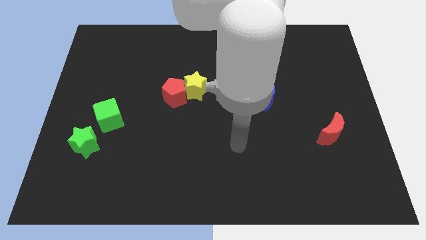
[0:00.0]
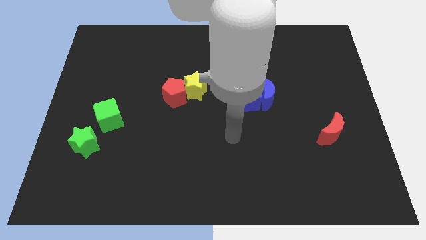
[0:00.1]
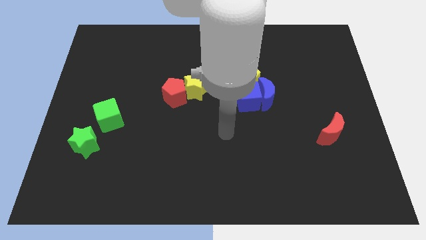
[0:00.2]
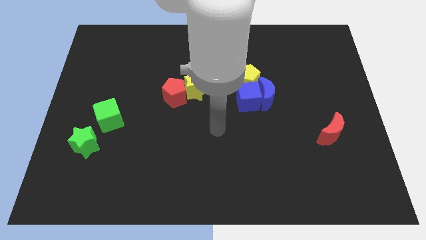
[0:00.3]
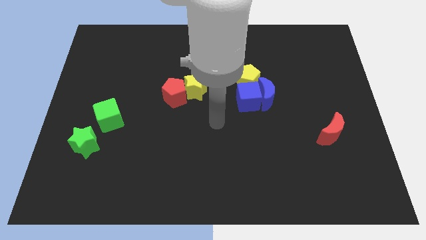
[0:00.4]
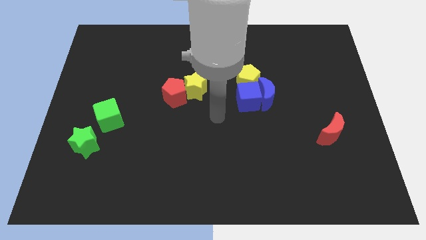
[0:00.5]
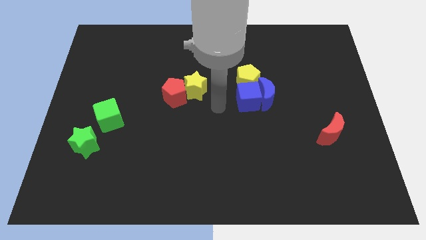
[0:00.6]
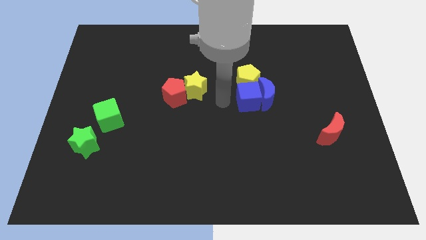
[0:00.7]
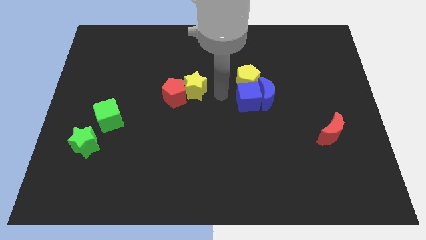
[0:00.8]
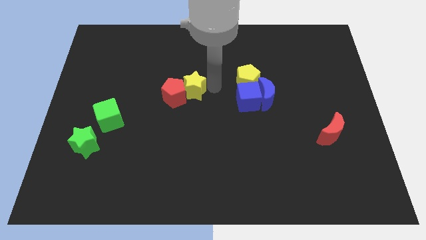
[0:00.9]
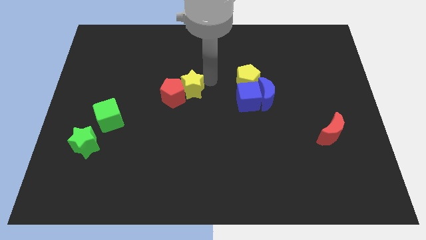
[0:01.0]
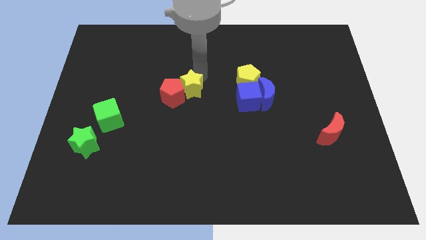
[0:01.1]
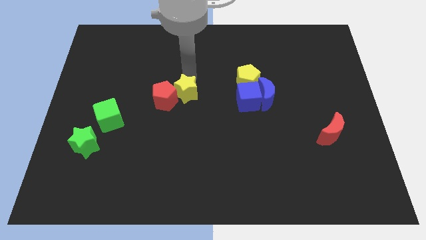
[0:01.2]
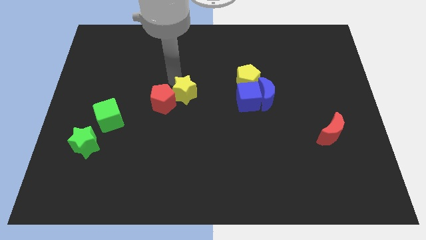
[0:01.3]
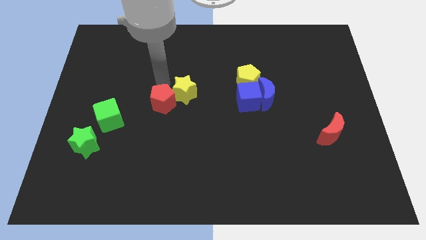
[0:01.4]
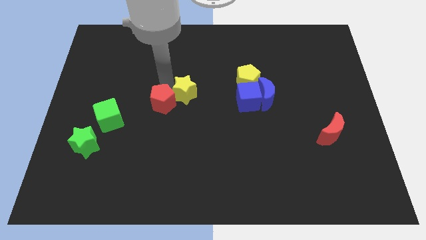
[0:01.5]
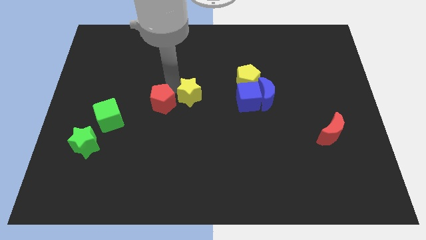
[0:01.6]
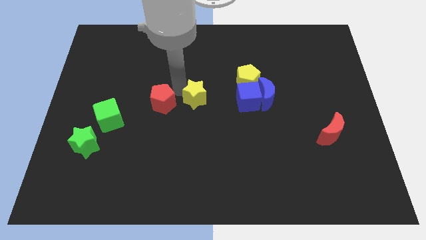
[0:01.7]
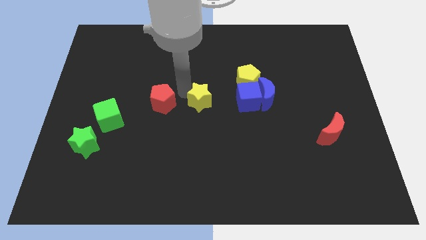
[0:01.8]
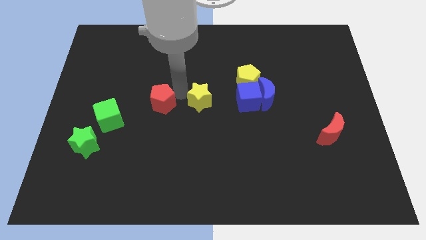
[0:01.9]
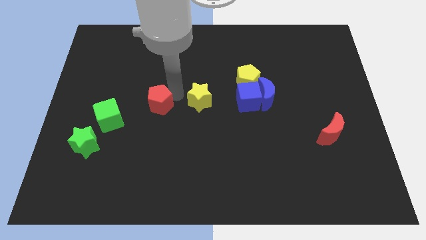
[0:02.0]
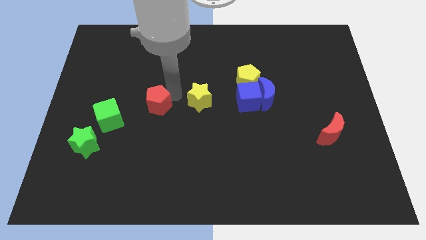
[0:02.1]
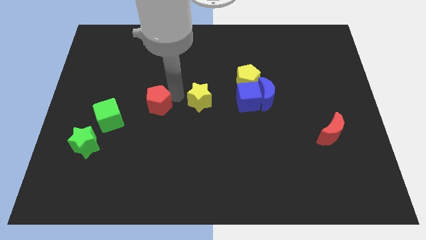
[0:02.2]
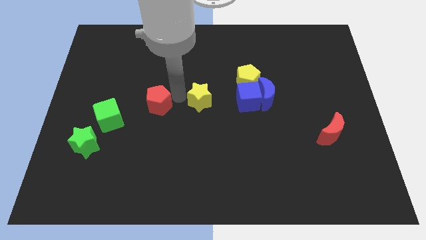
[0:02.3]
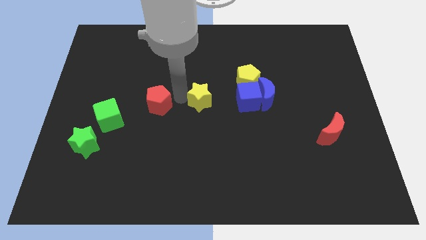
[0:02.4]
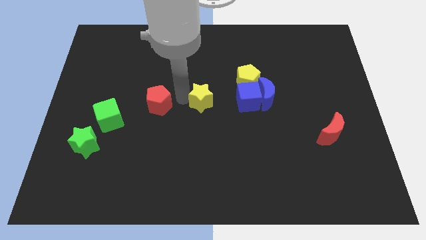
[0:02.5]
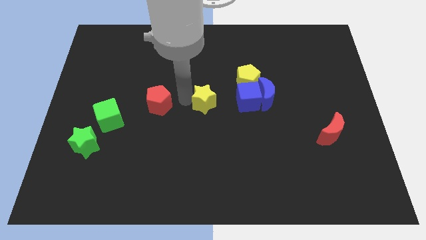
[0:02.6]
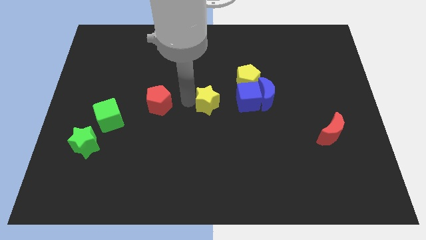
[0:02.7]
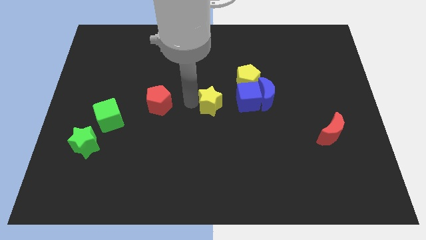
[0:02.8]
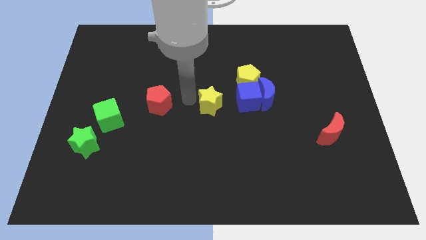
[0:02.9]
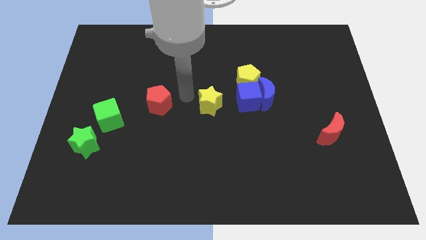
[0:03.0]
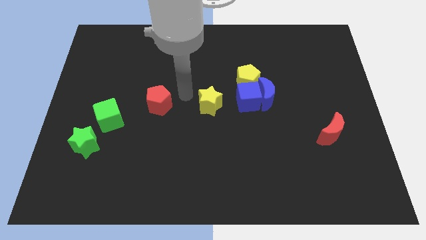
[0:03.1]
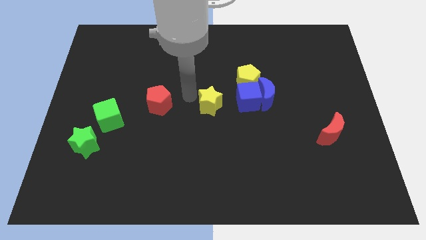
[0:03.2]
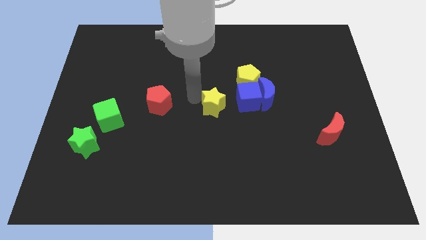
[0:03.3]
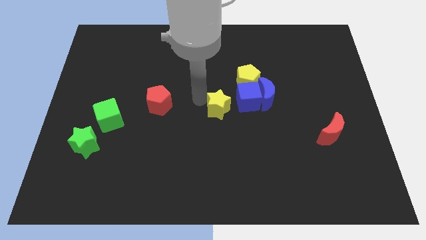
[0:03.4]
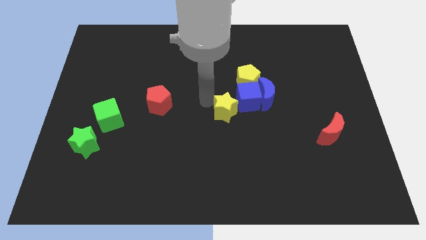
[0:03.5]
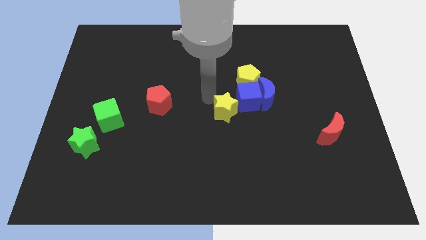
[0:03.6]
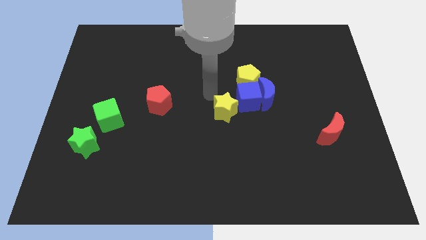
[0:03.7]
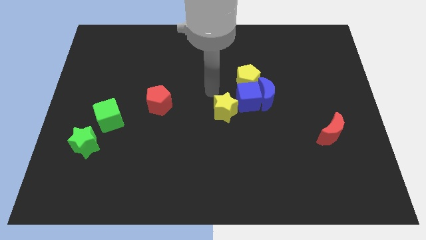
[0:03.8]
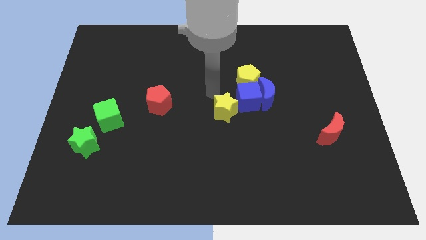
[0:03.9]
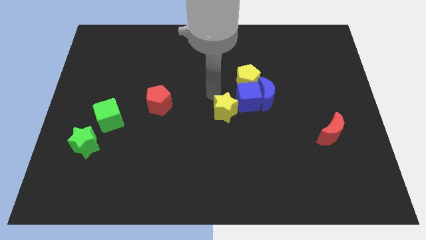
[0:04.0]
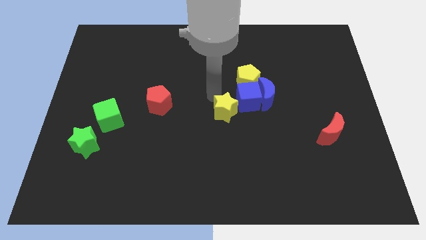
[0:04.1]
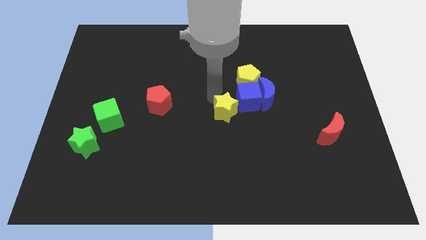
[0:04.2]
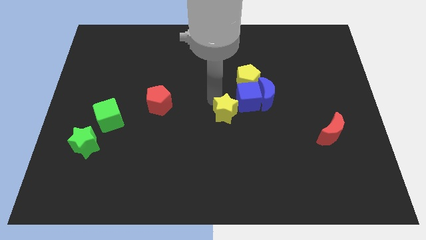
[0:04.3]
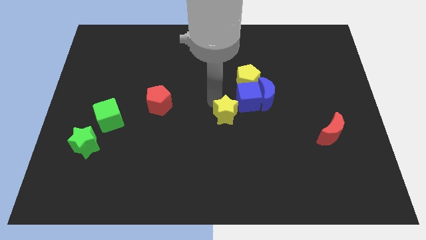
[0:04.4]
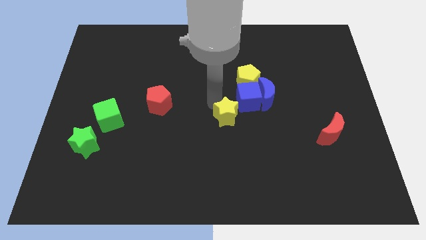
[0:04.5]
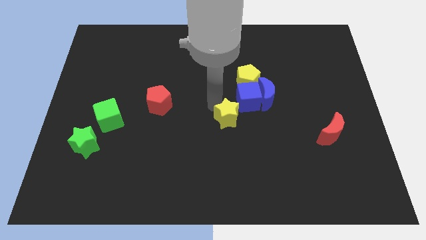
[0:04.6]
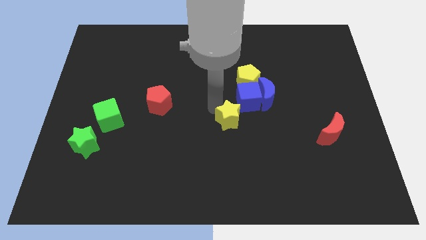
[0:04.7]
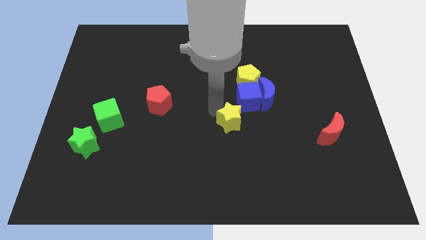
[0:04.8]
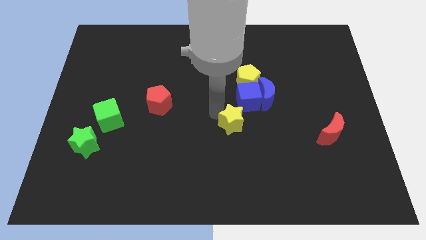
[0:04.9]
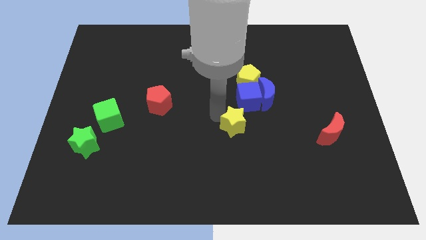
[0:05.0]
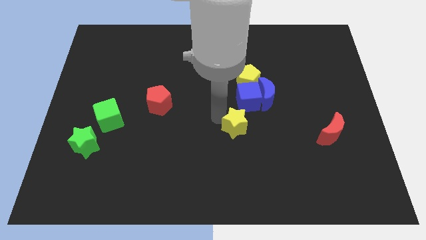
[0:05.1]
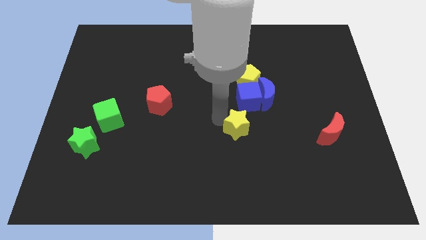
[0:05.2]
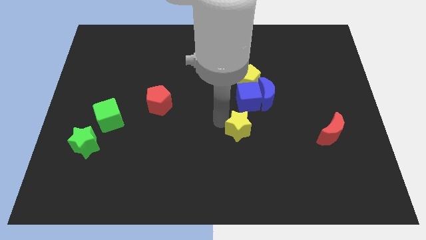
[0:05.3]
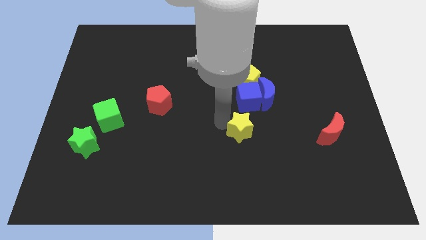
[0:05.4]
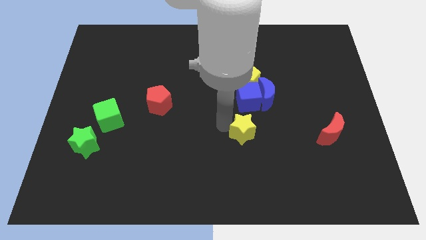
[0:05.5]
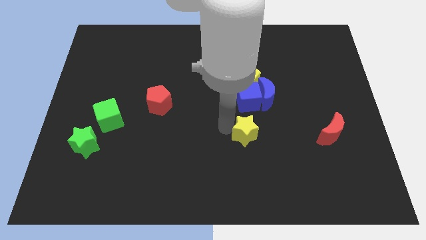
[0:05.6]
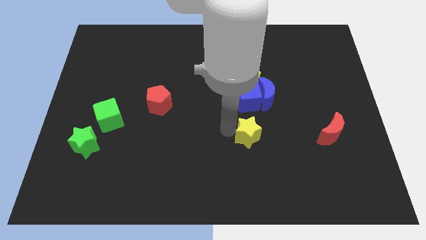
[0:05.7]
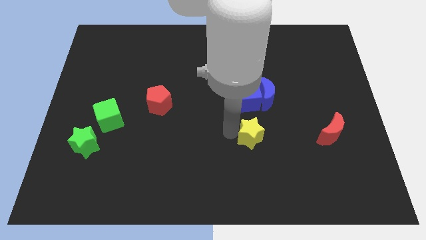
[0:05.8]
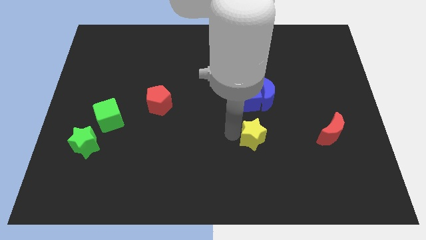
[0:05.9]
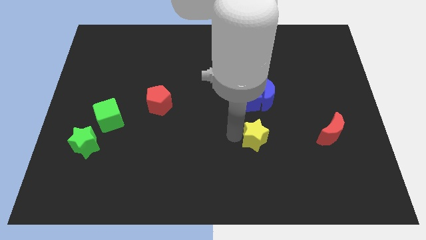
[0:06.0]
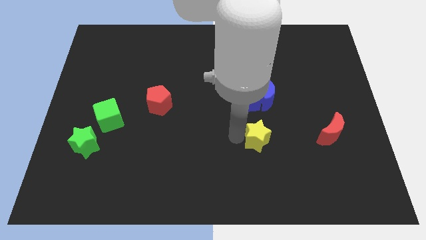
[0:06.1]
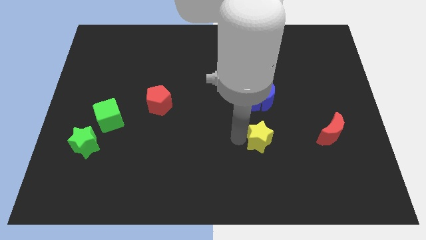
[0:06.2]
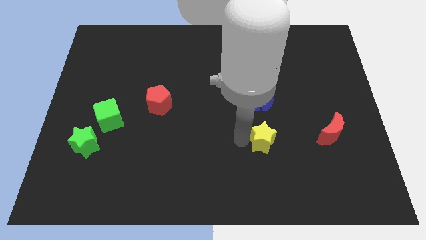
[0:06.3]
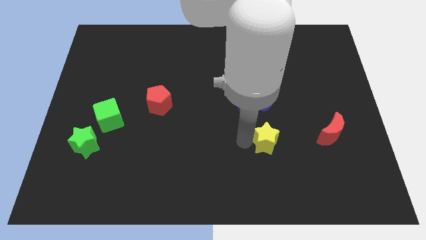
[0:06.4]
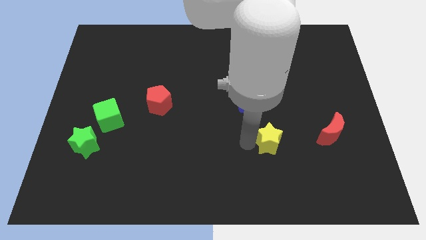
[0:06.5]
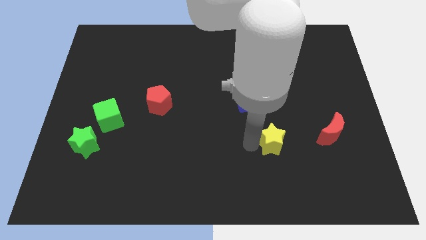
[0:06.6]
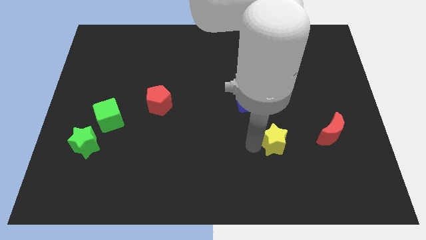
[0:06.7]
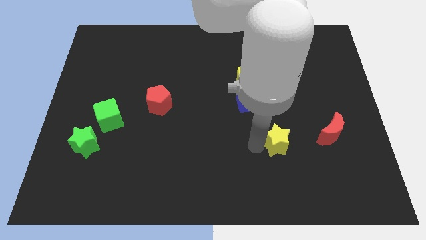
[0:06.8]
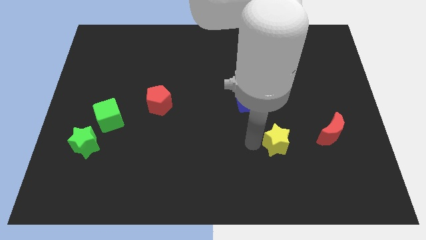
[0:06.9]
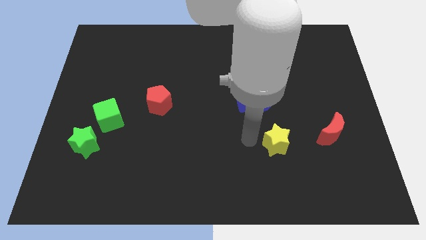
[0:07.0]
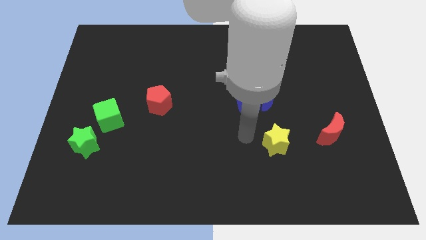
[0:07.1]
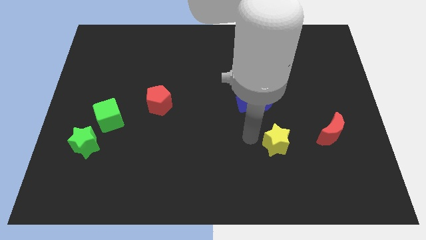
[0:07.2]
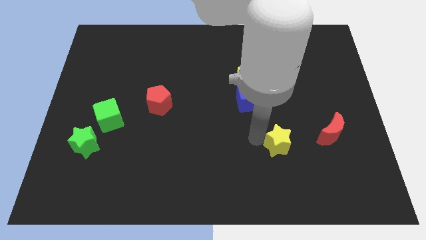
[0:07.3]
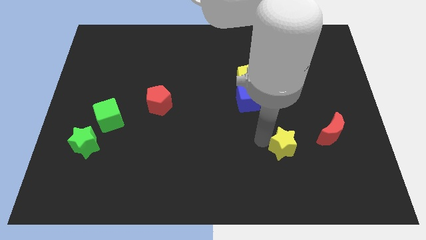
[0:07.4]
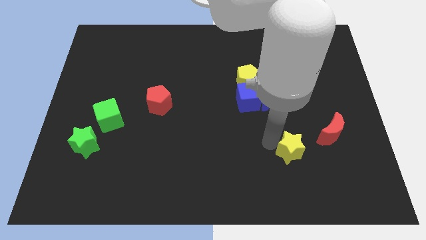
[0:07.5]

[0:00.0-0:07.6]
push the yellow star to the bottom left side of the red moon

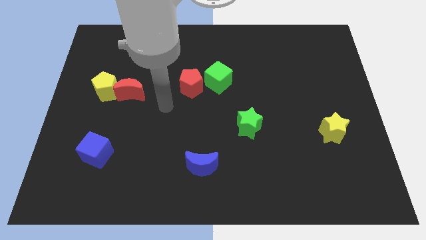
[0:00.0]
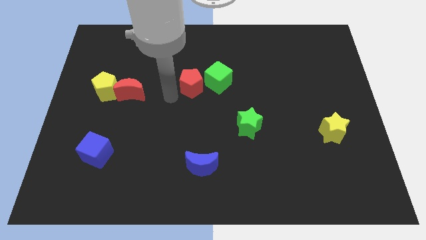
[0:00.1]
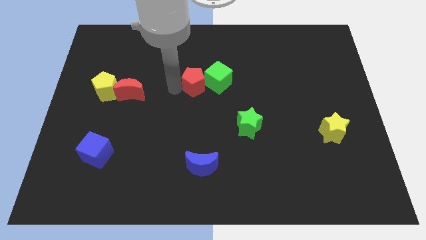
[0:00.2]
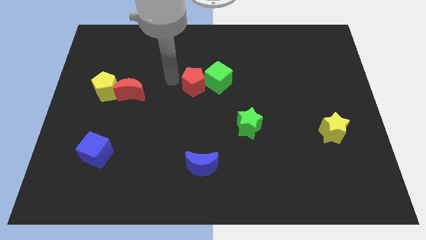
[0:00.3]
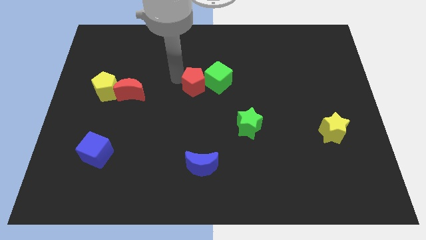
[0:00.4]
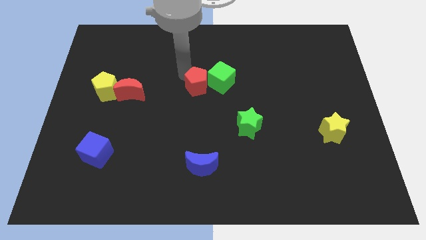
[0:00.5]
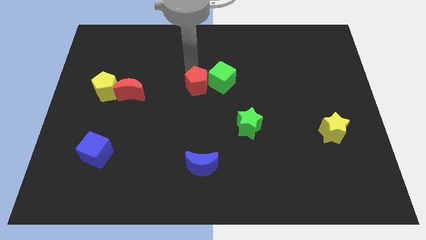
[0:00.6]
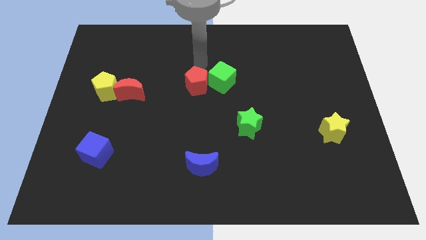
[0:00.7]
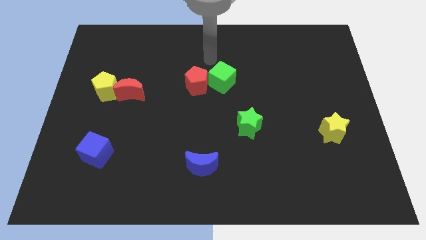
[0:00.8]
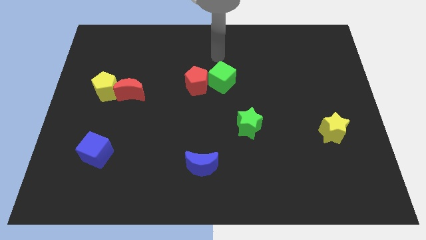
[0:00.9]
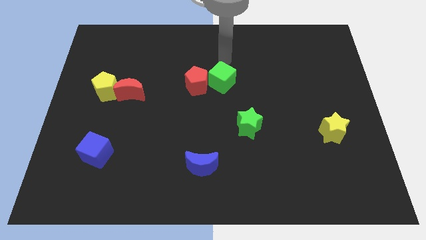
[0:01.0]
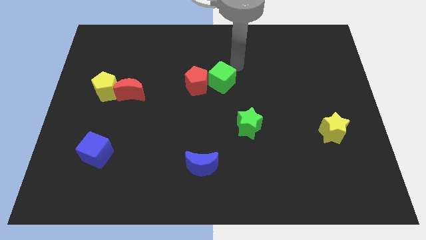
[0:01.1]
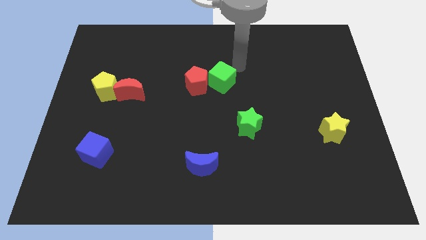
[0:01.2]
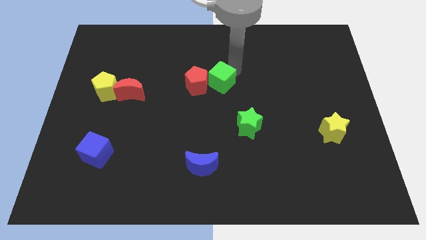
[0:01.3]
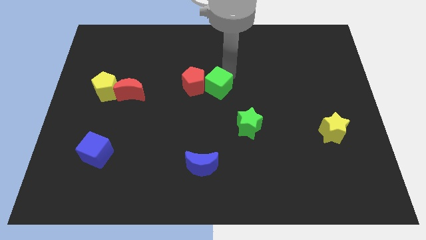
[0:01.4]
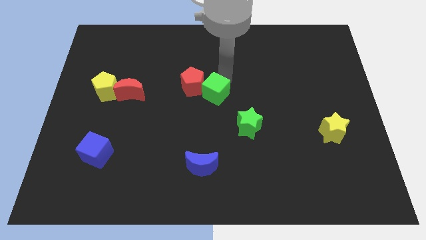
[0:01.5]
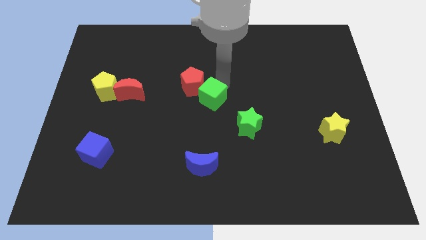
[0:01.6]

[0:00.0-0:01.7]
push the green cube to the bottom side of the red pentagon
